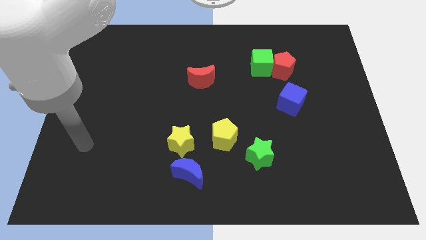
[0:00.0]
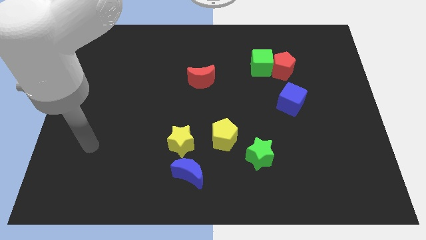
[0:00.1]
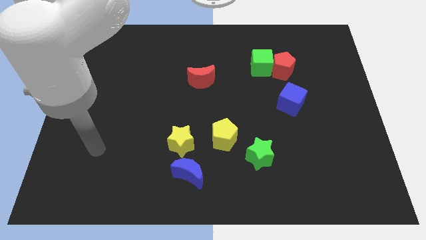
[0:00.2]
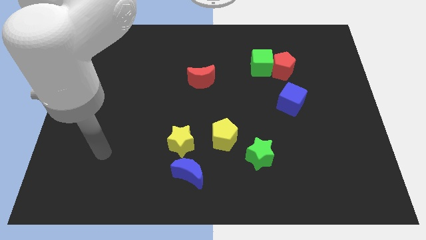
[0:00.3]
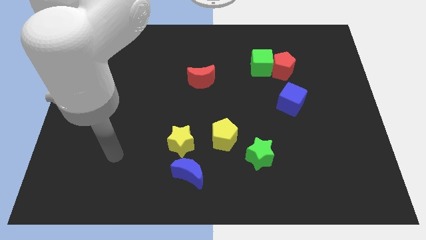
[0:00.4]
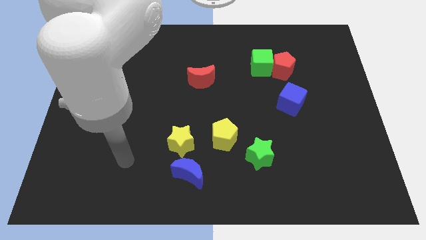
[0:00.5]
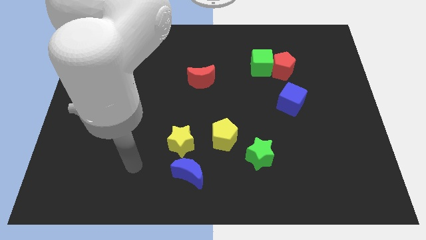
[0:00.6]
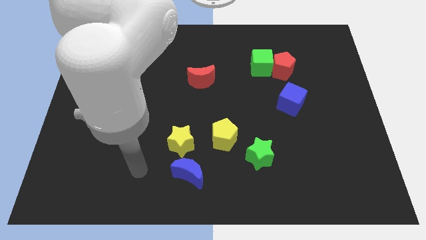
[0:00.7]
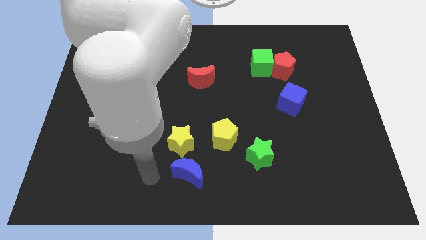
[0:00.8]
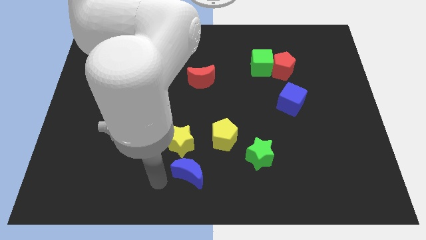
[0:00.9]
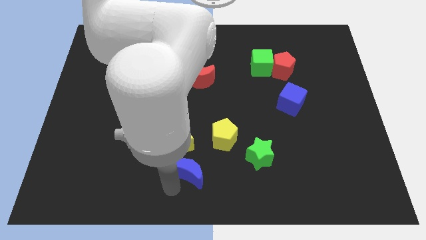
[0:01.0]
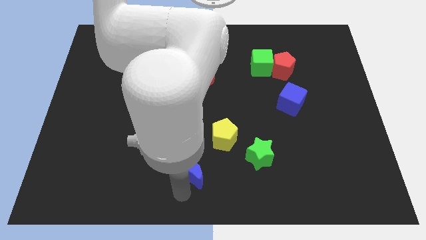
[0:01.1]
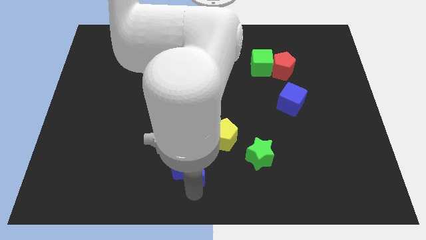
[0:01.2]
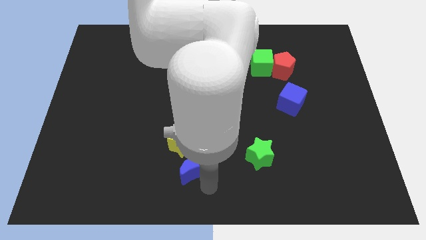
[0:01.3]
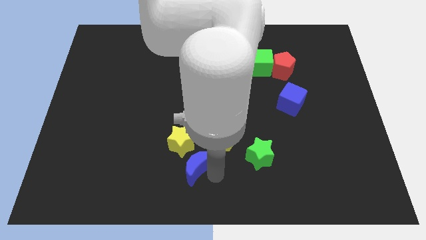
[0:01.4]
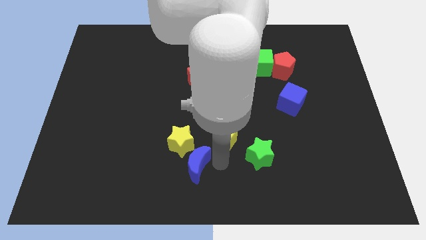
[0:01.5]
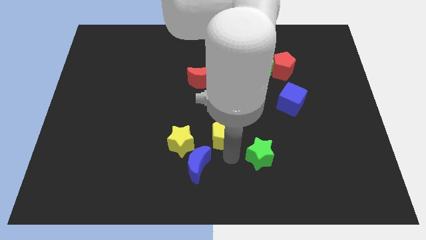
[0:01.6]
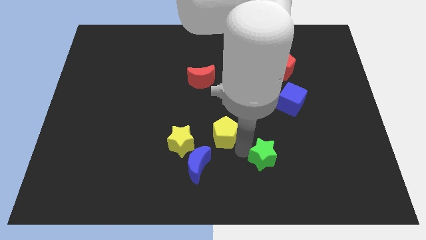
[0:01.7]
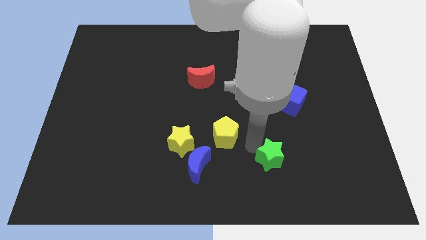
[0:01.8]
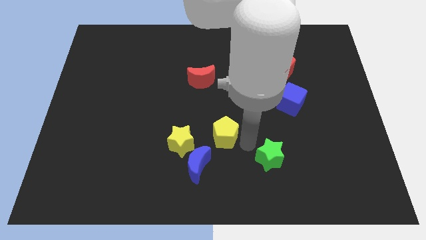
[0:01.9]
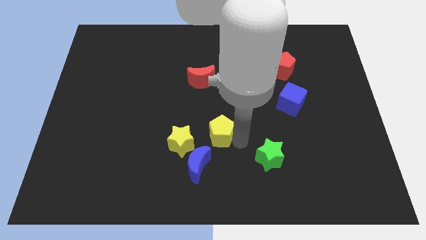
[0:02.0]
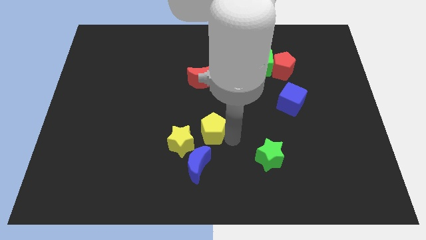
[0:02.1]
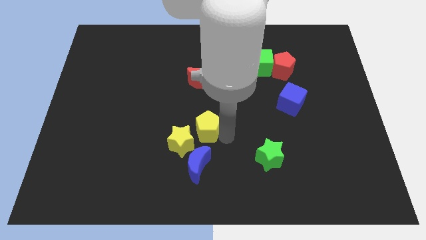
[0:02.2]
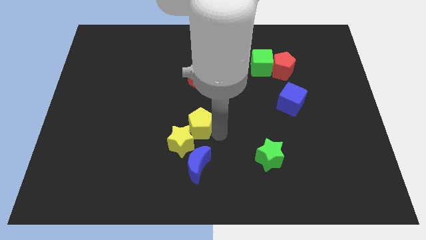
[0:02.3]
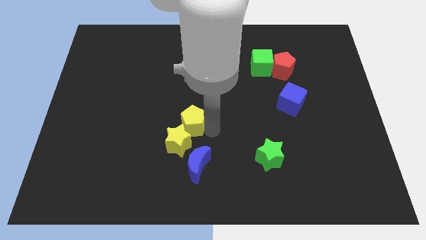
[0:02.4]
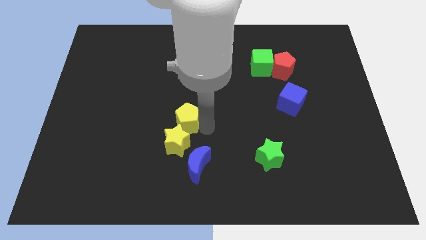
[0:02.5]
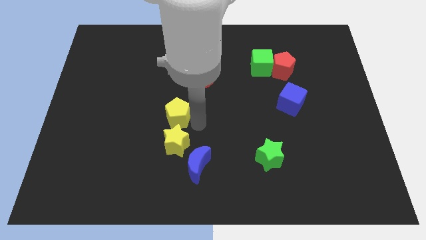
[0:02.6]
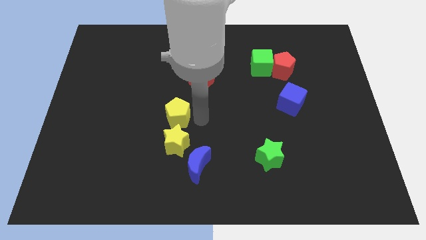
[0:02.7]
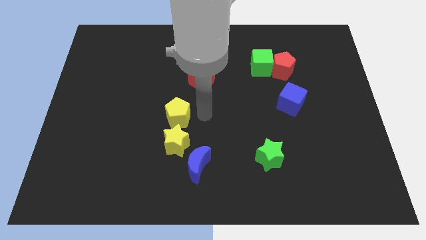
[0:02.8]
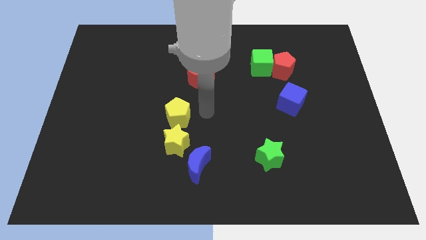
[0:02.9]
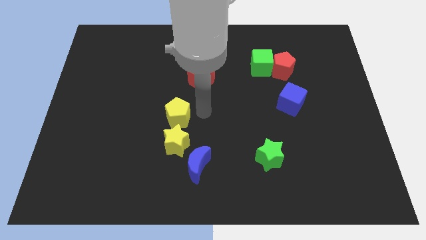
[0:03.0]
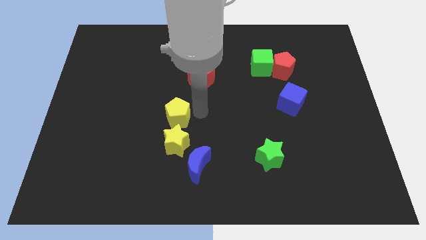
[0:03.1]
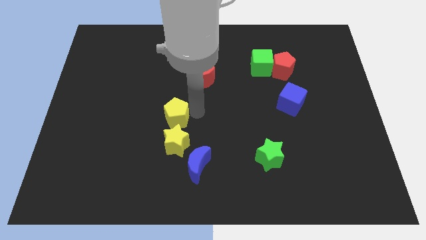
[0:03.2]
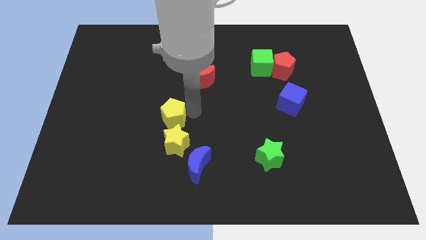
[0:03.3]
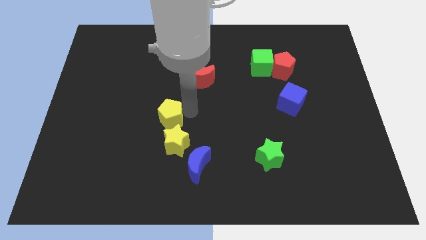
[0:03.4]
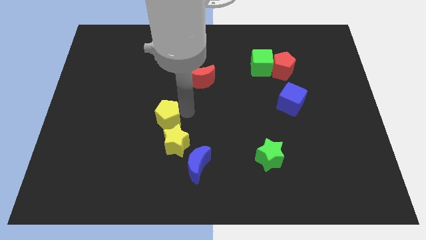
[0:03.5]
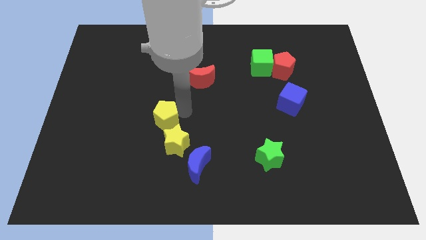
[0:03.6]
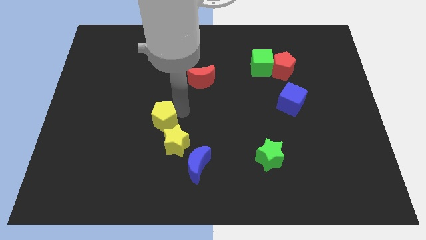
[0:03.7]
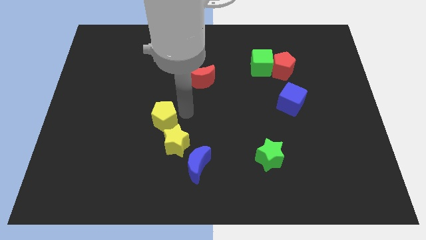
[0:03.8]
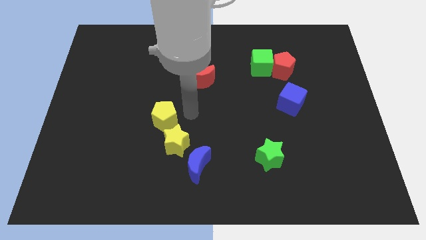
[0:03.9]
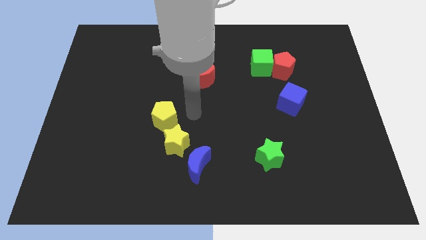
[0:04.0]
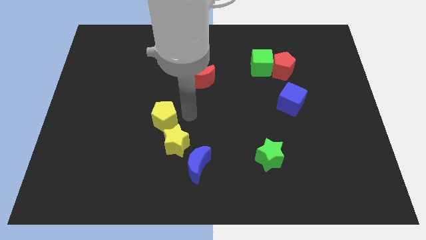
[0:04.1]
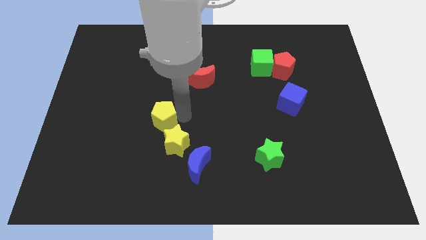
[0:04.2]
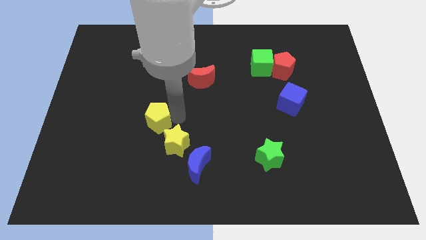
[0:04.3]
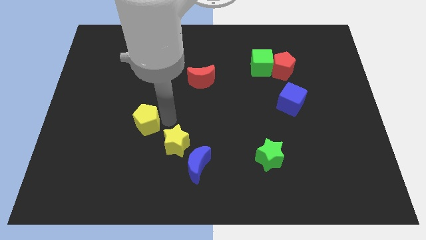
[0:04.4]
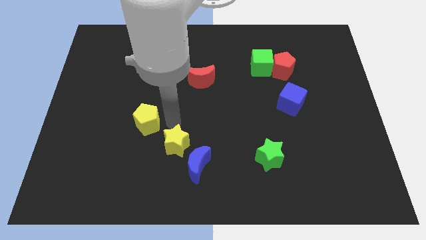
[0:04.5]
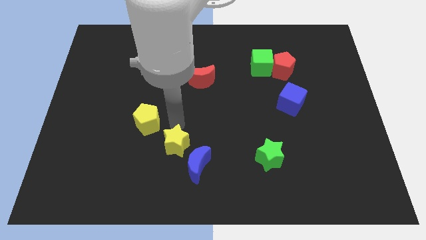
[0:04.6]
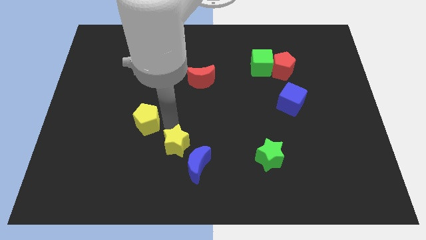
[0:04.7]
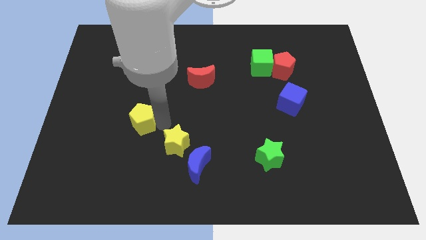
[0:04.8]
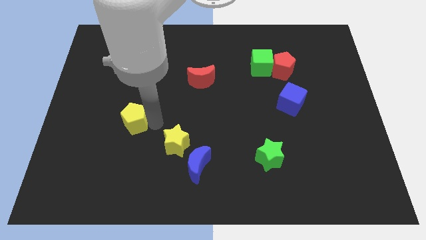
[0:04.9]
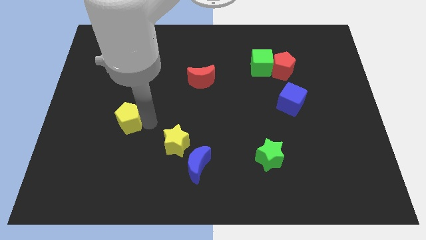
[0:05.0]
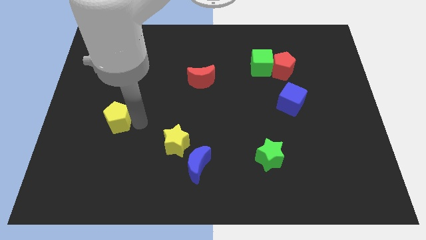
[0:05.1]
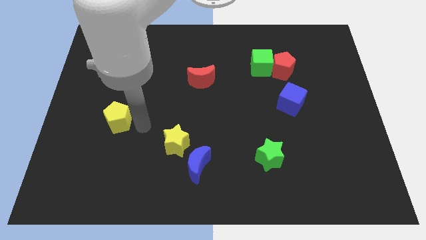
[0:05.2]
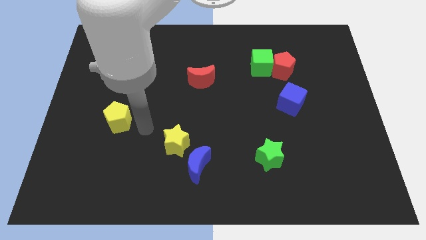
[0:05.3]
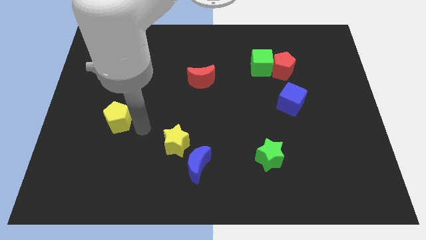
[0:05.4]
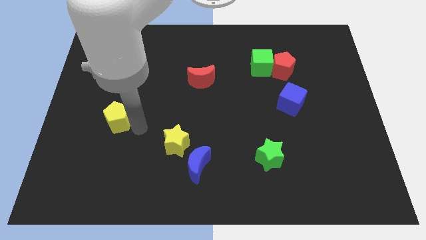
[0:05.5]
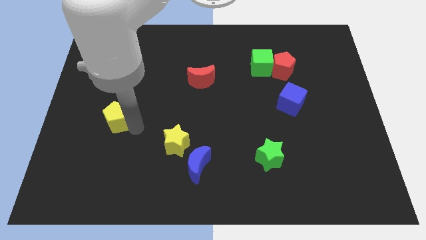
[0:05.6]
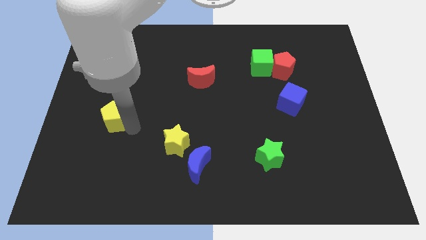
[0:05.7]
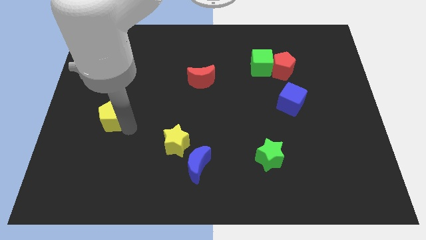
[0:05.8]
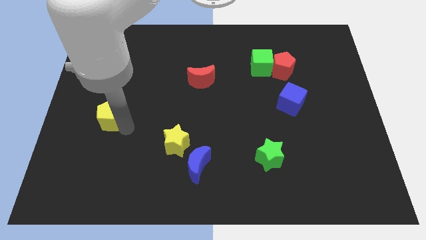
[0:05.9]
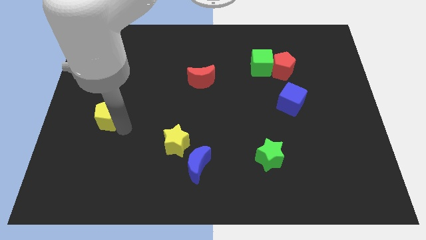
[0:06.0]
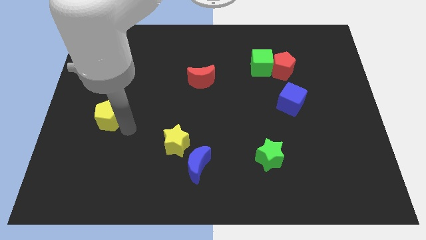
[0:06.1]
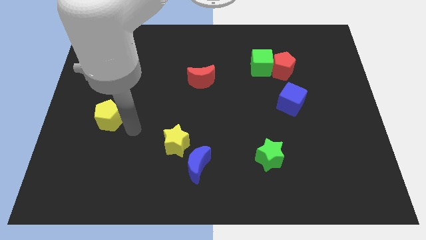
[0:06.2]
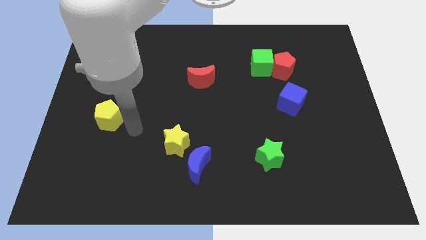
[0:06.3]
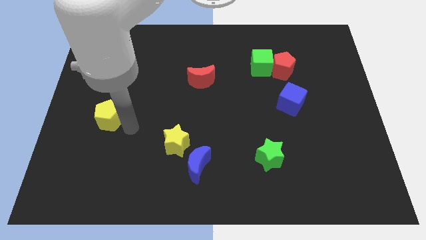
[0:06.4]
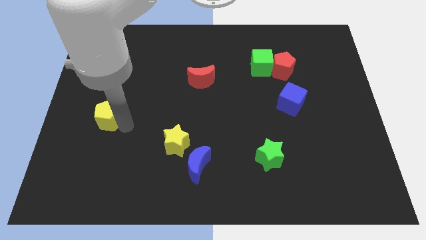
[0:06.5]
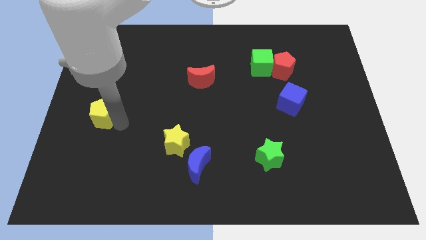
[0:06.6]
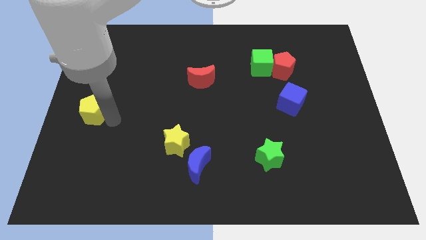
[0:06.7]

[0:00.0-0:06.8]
move the yellow pentagon to the left side of the board
